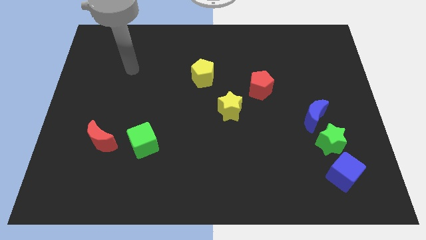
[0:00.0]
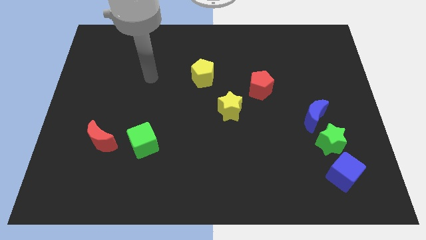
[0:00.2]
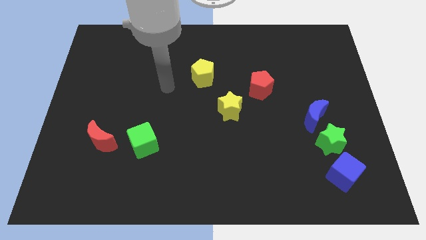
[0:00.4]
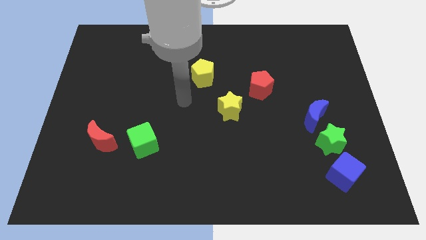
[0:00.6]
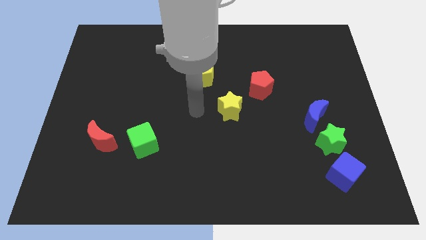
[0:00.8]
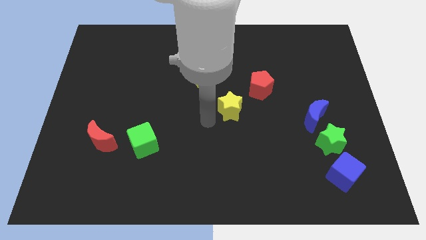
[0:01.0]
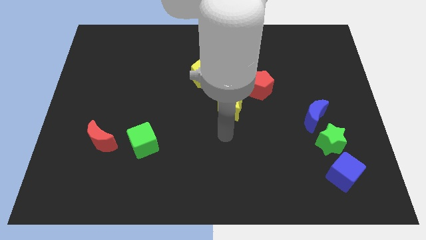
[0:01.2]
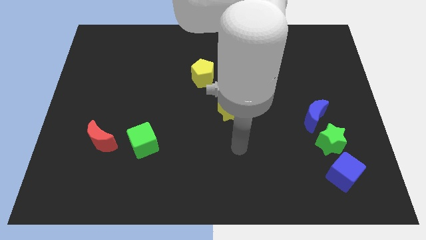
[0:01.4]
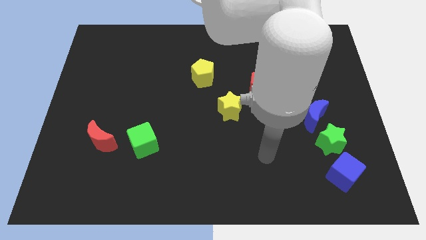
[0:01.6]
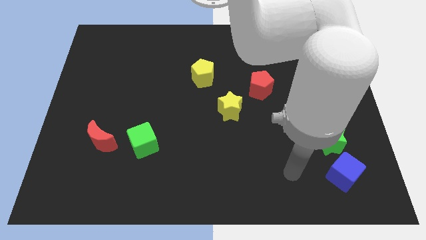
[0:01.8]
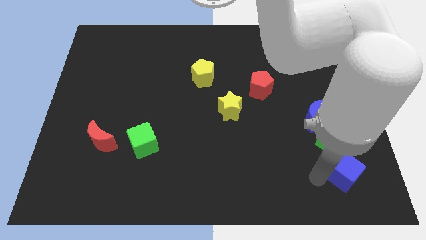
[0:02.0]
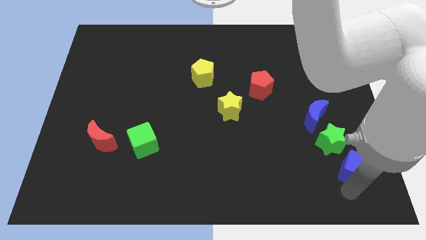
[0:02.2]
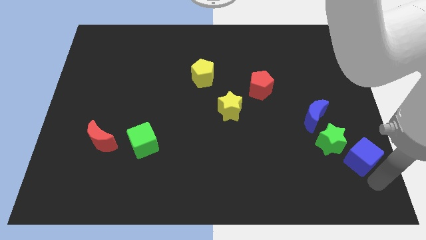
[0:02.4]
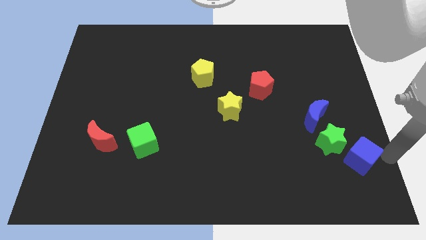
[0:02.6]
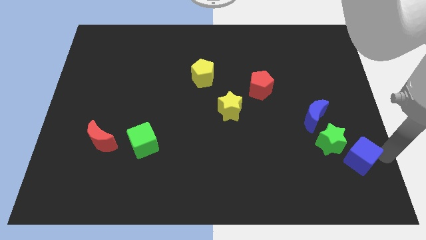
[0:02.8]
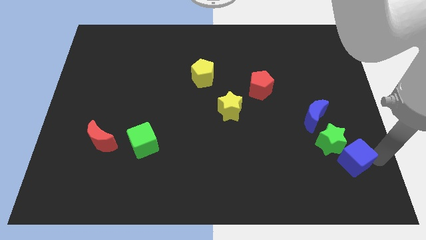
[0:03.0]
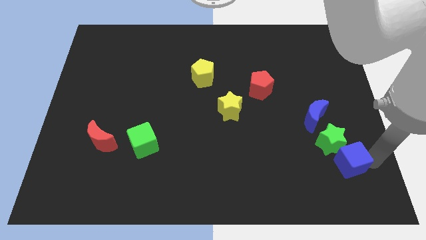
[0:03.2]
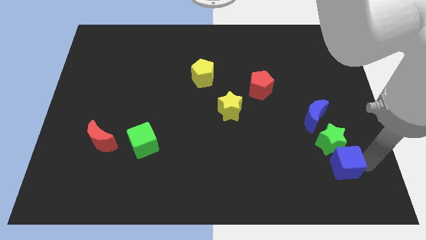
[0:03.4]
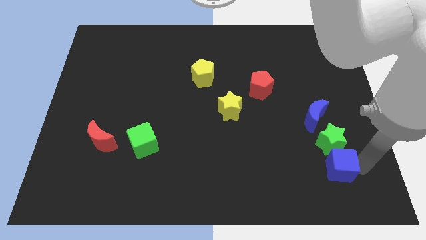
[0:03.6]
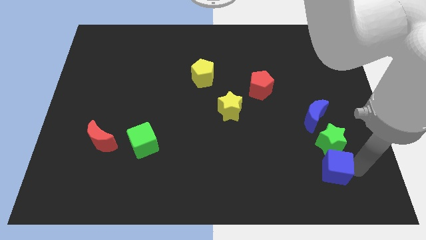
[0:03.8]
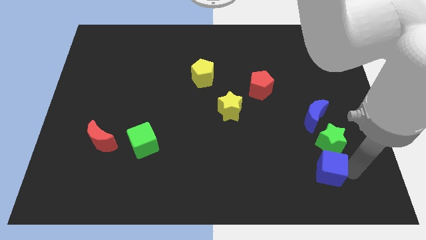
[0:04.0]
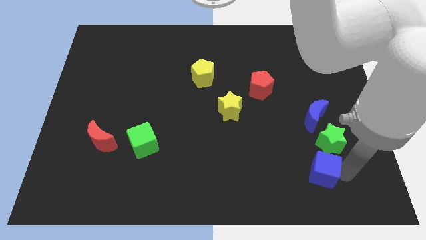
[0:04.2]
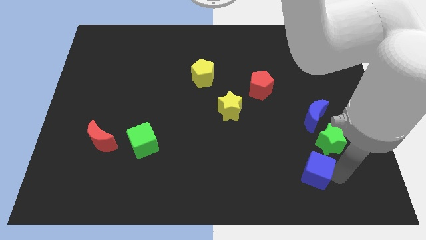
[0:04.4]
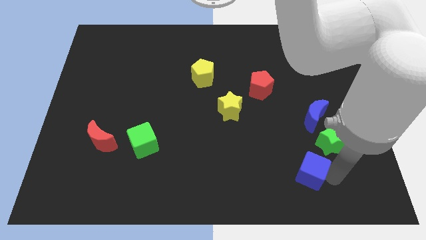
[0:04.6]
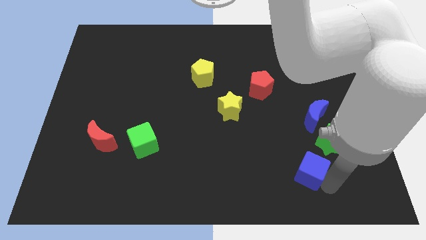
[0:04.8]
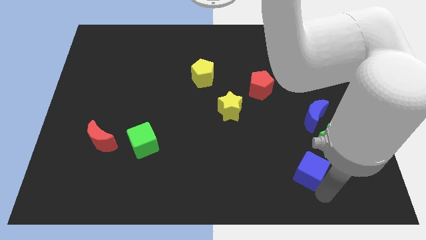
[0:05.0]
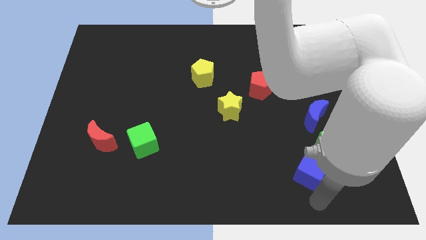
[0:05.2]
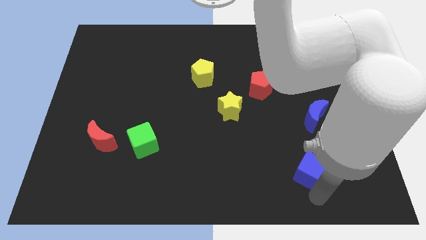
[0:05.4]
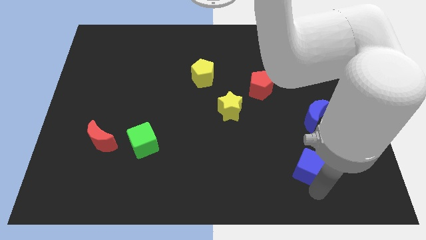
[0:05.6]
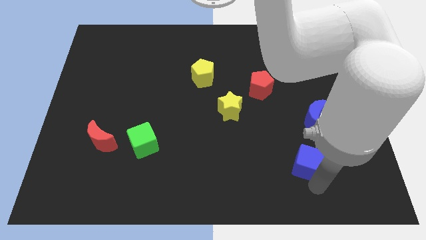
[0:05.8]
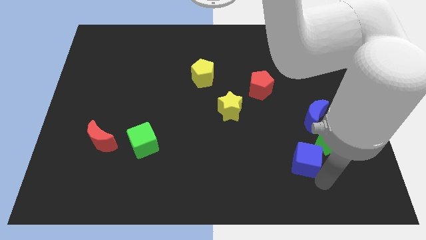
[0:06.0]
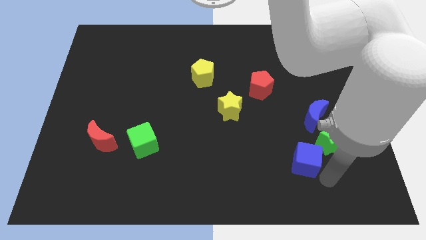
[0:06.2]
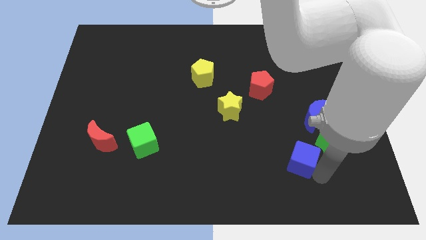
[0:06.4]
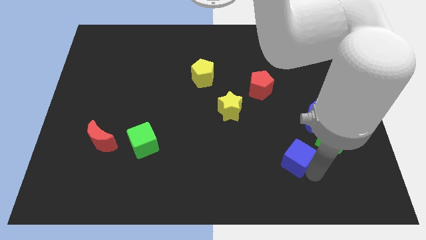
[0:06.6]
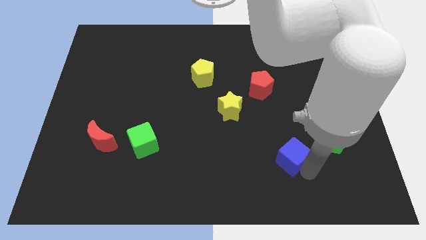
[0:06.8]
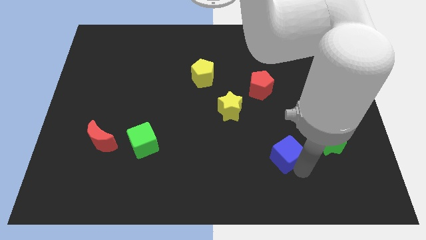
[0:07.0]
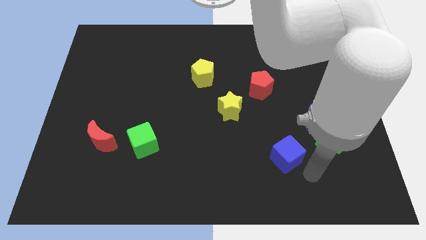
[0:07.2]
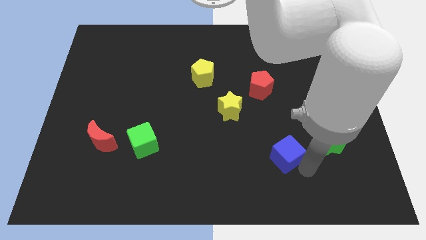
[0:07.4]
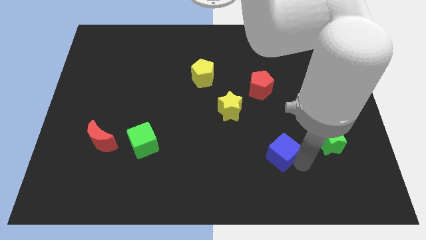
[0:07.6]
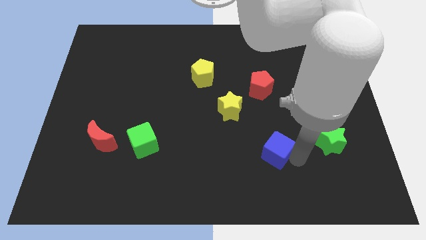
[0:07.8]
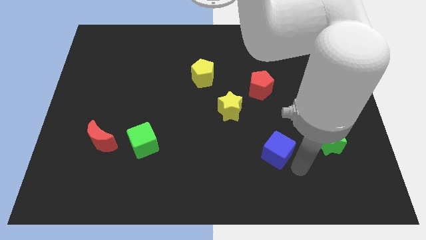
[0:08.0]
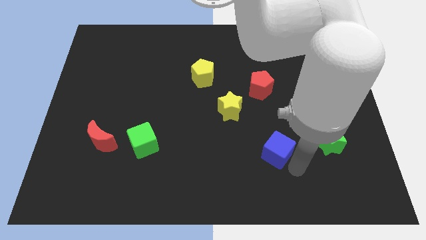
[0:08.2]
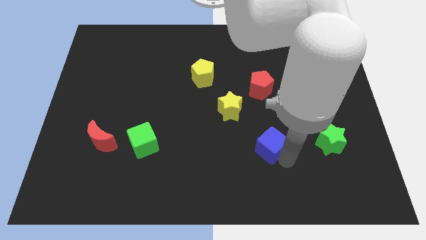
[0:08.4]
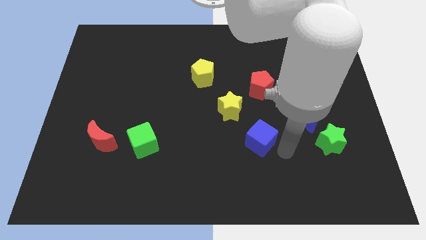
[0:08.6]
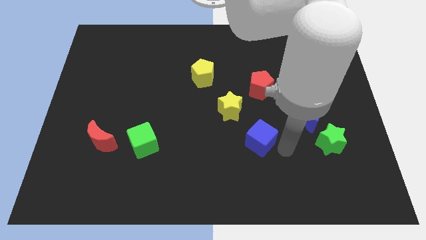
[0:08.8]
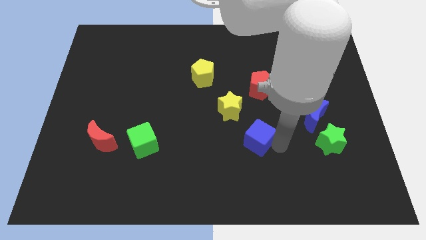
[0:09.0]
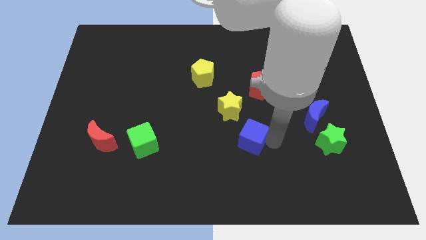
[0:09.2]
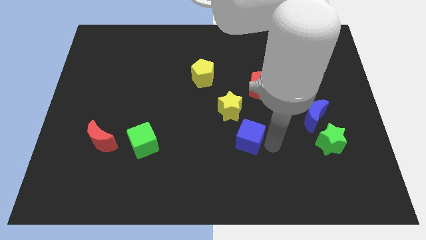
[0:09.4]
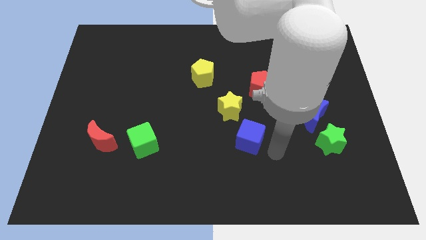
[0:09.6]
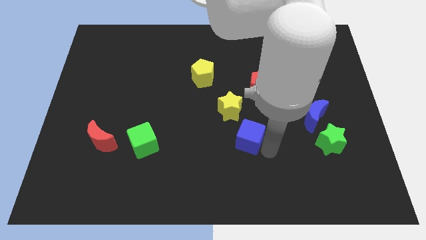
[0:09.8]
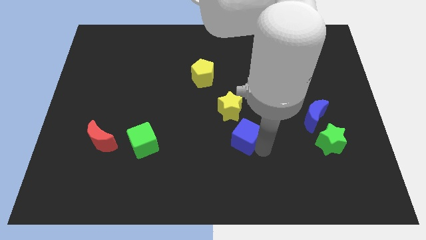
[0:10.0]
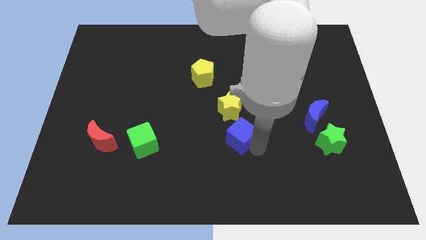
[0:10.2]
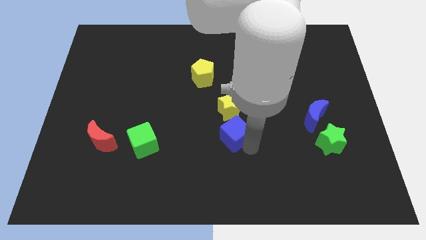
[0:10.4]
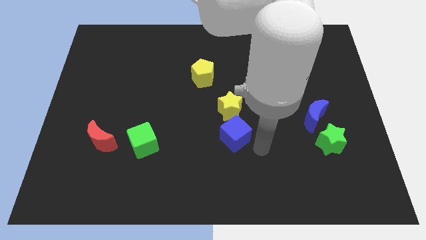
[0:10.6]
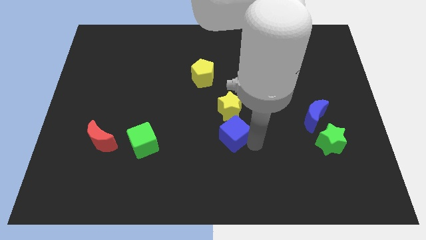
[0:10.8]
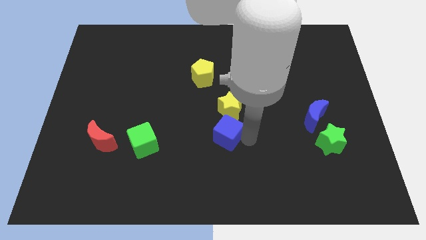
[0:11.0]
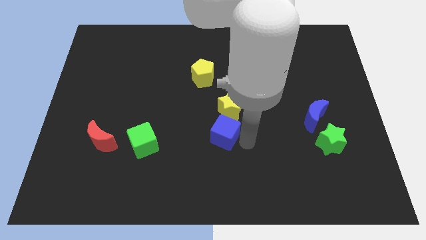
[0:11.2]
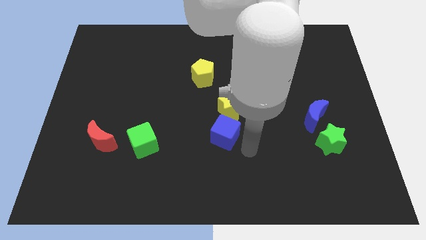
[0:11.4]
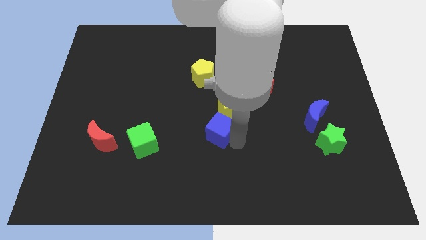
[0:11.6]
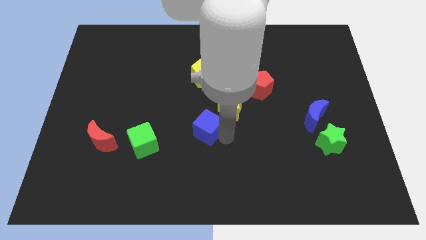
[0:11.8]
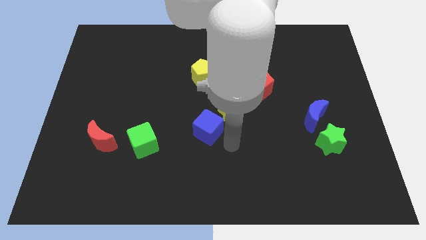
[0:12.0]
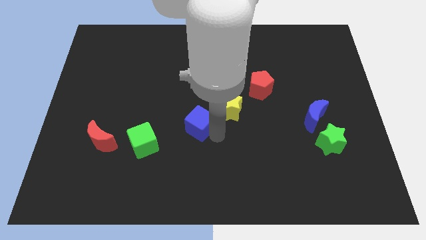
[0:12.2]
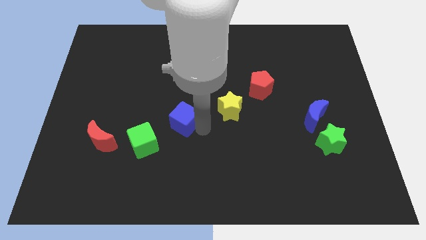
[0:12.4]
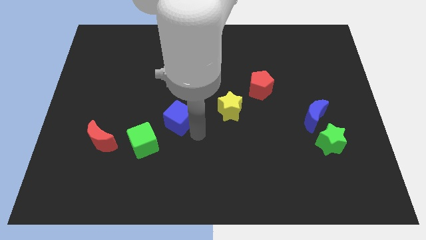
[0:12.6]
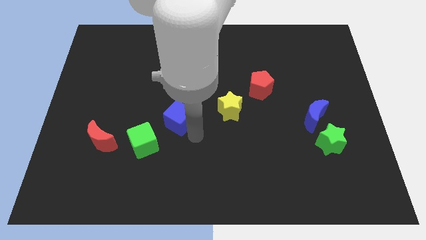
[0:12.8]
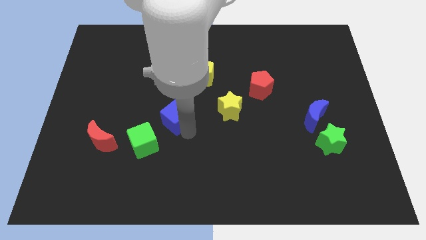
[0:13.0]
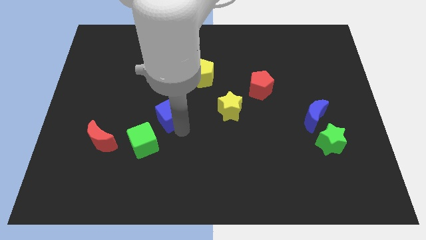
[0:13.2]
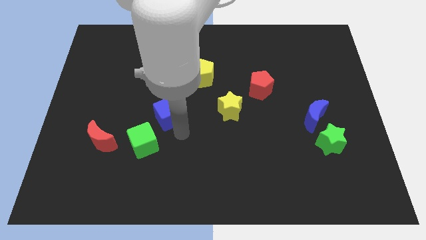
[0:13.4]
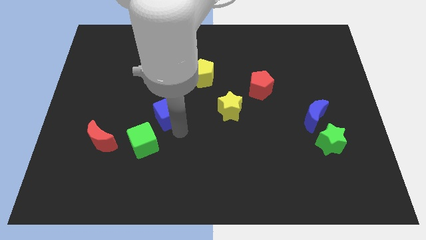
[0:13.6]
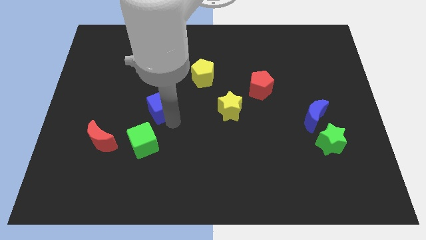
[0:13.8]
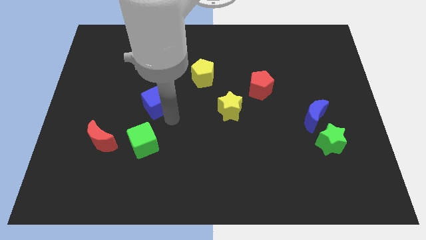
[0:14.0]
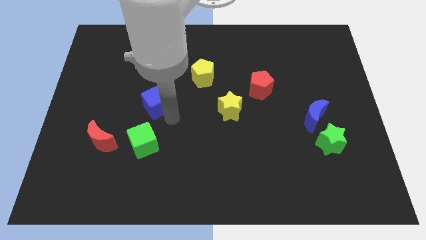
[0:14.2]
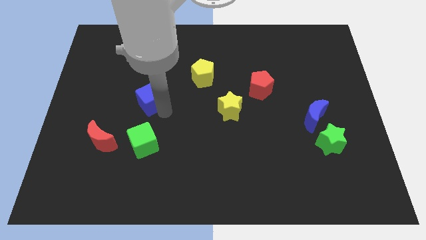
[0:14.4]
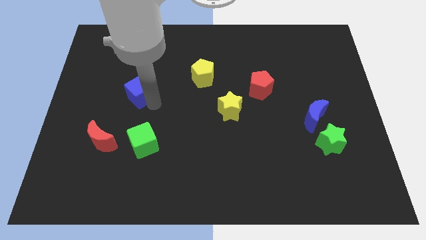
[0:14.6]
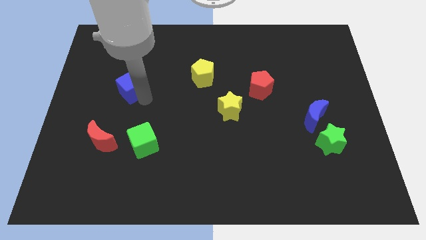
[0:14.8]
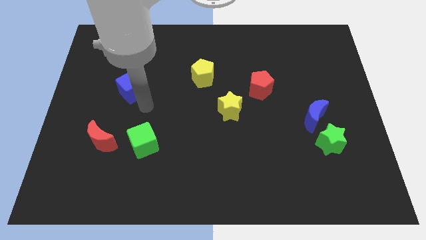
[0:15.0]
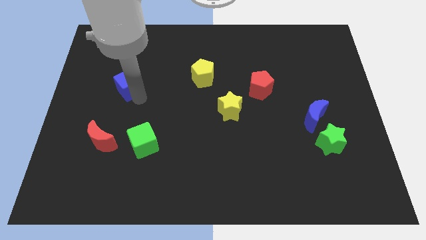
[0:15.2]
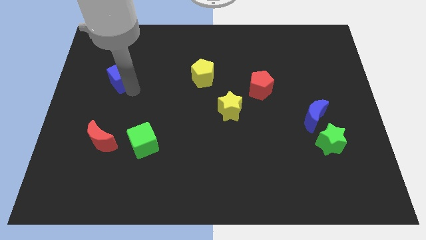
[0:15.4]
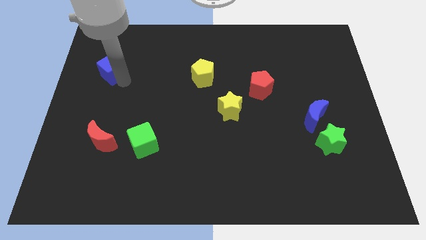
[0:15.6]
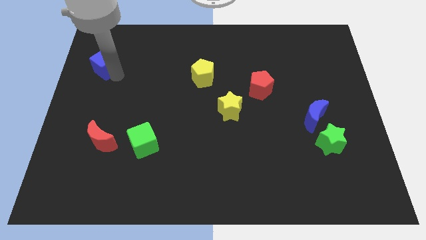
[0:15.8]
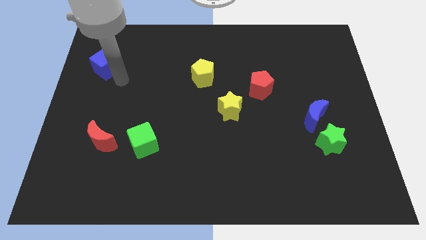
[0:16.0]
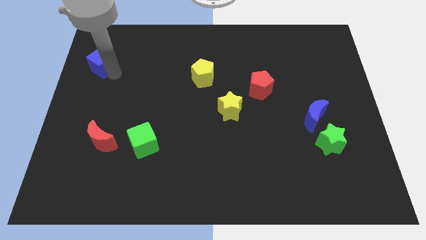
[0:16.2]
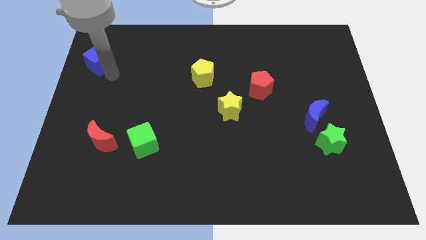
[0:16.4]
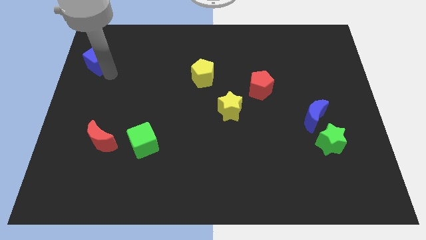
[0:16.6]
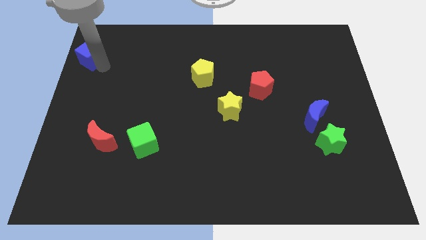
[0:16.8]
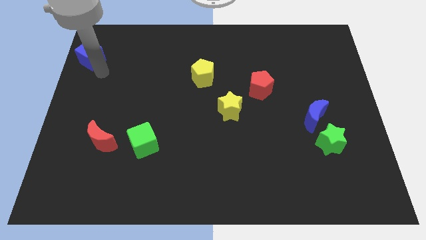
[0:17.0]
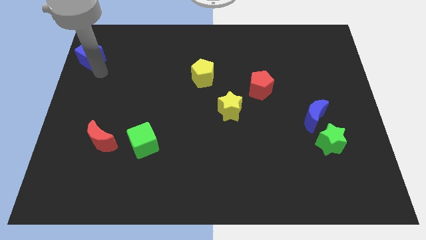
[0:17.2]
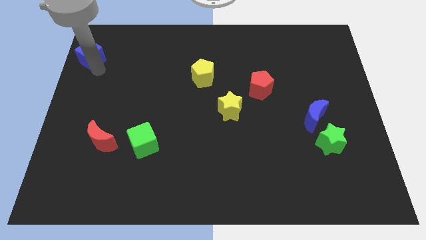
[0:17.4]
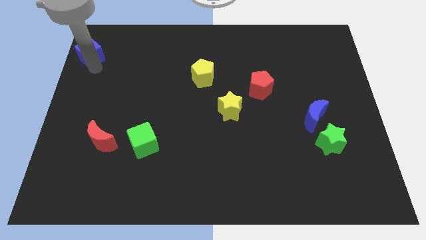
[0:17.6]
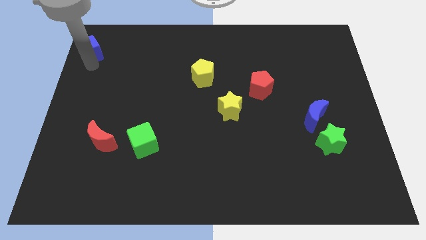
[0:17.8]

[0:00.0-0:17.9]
move the blue cube to the top left corner
